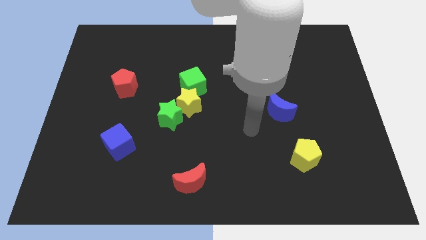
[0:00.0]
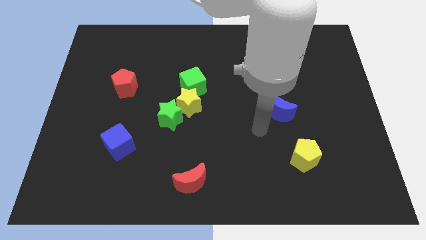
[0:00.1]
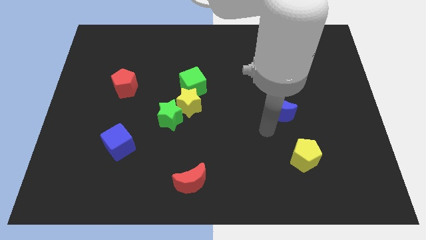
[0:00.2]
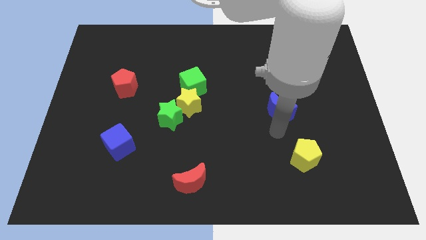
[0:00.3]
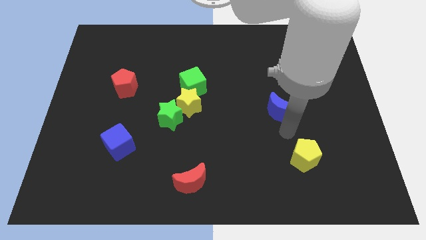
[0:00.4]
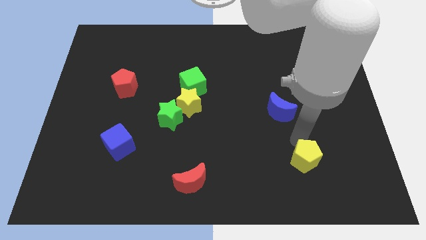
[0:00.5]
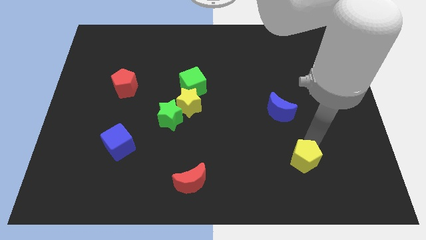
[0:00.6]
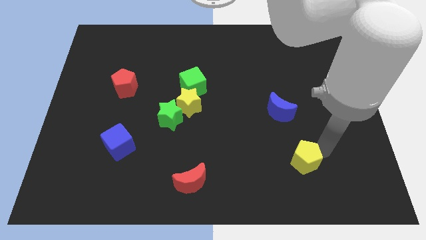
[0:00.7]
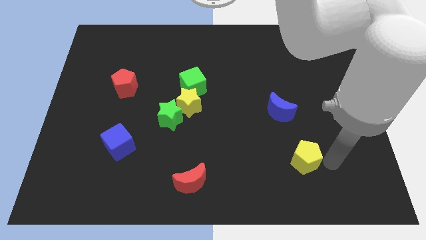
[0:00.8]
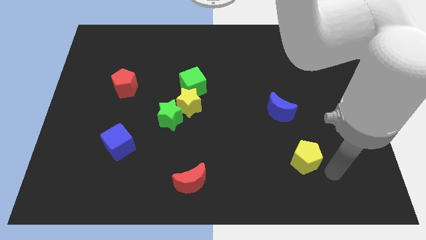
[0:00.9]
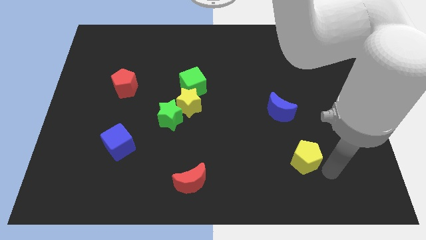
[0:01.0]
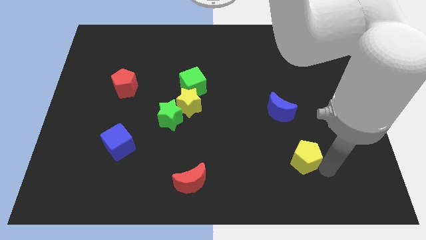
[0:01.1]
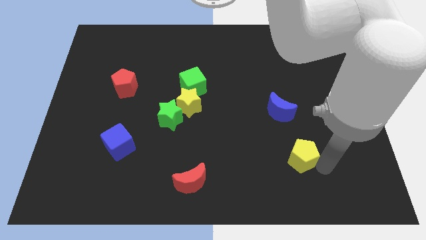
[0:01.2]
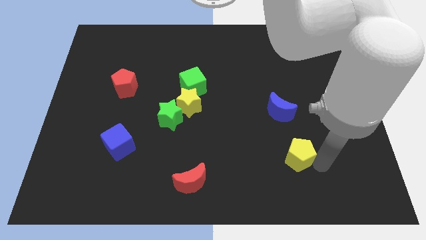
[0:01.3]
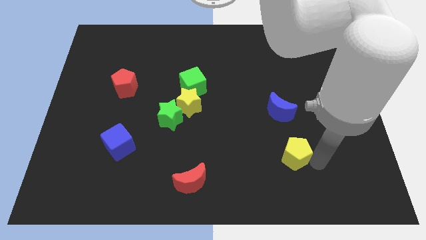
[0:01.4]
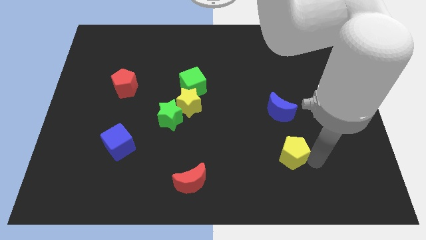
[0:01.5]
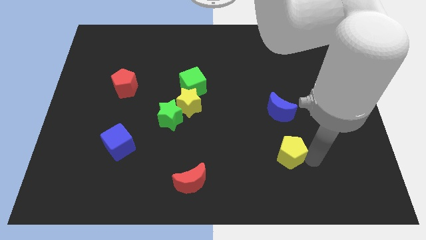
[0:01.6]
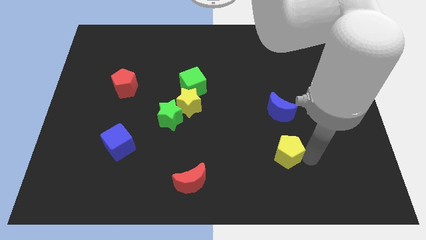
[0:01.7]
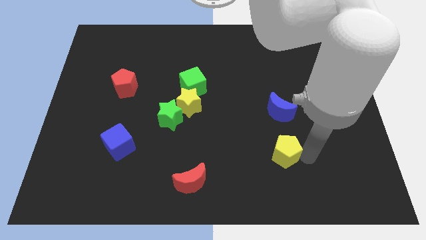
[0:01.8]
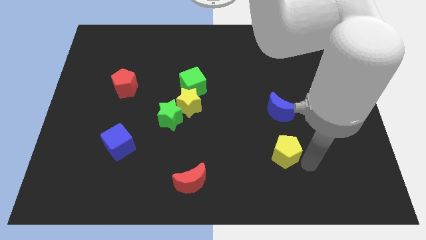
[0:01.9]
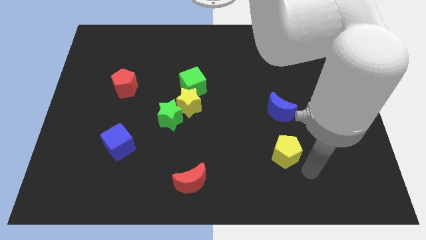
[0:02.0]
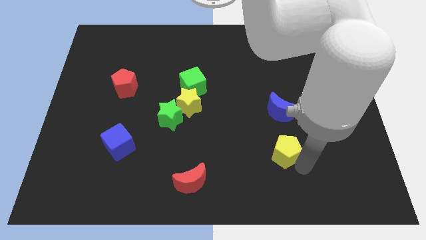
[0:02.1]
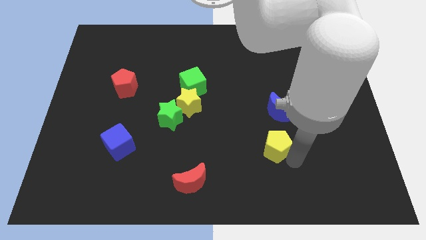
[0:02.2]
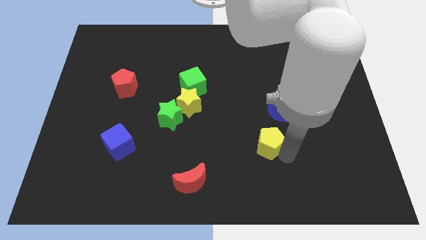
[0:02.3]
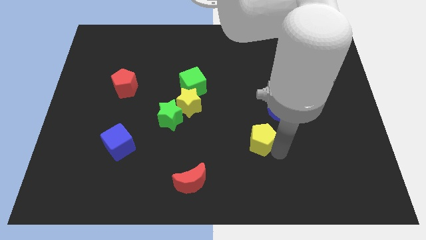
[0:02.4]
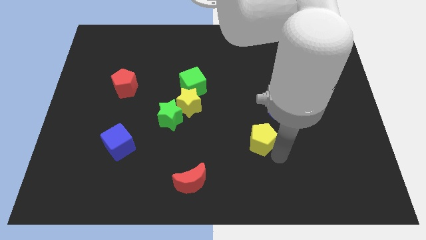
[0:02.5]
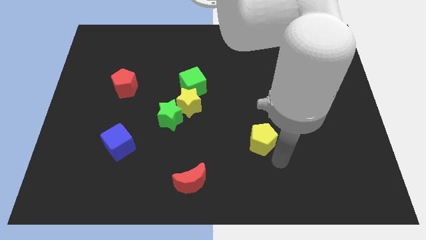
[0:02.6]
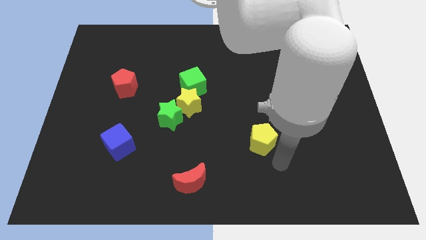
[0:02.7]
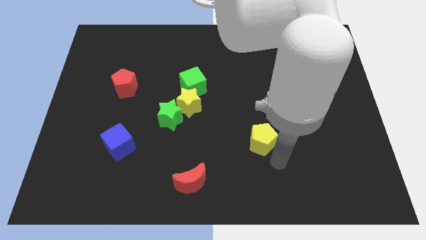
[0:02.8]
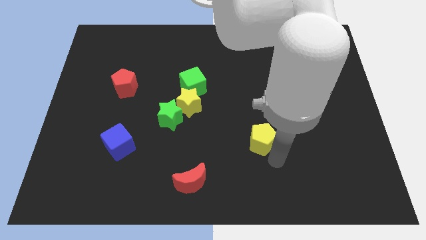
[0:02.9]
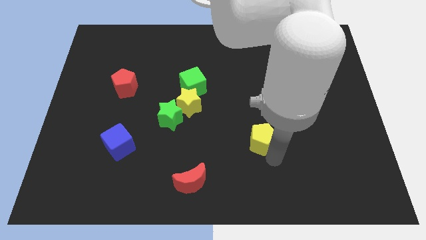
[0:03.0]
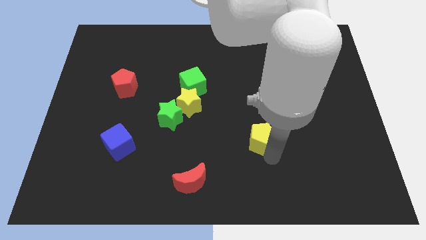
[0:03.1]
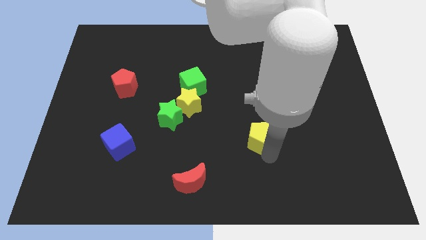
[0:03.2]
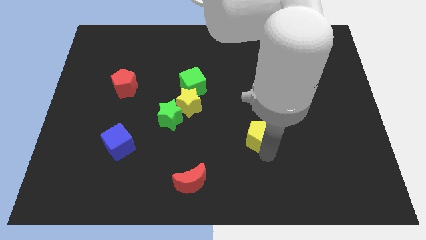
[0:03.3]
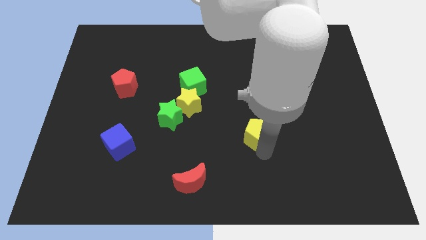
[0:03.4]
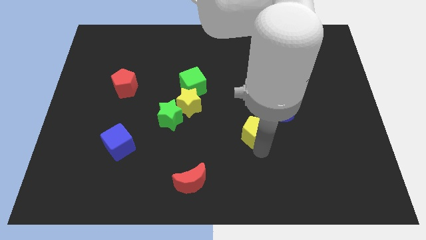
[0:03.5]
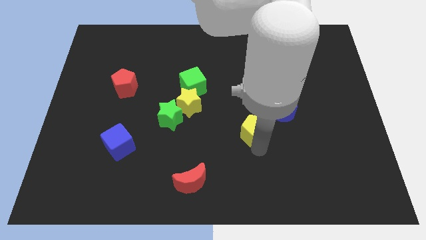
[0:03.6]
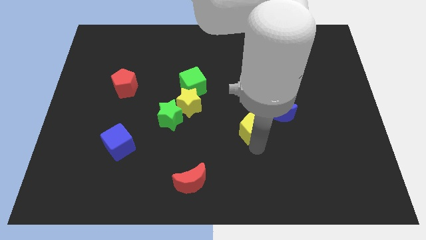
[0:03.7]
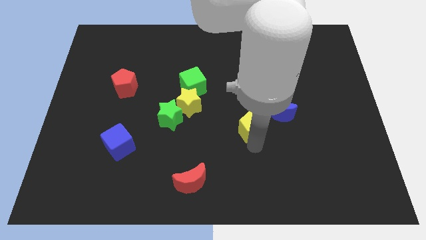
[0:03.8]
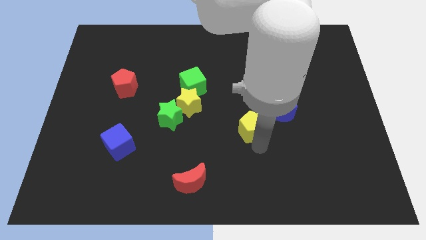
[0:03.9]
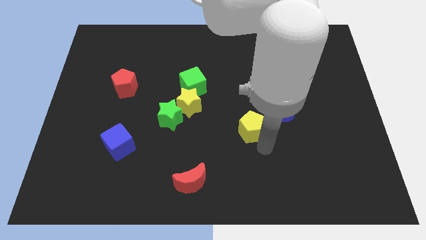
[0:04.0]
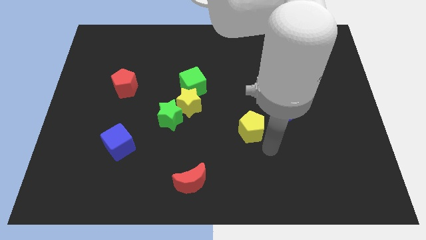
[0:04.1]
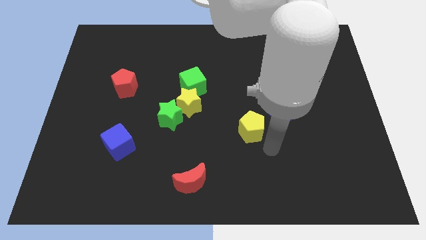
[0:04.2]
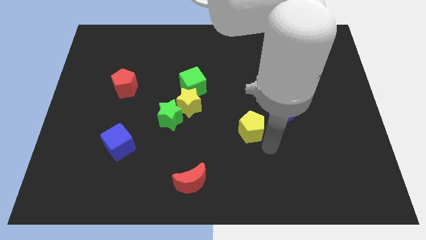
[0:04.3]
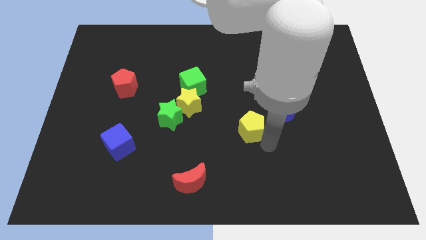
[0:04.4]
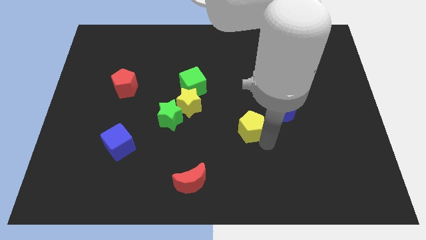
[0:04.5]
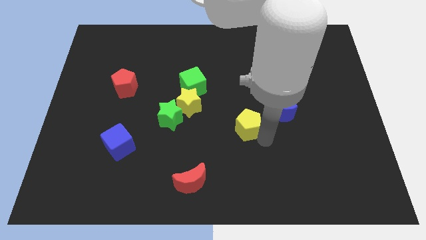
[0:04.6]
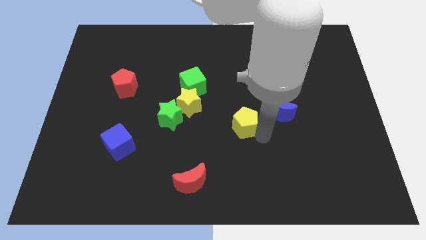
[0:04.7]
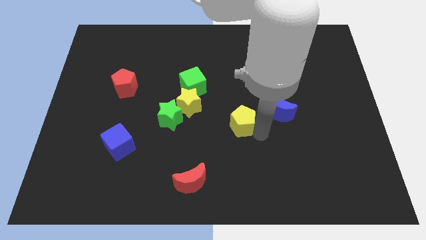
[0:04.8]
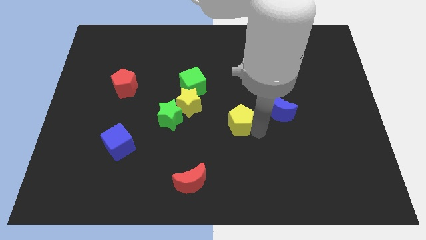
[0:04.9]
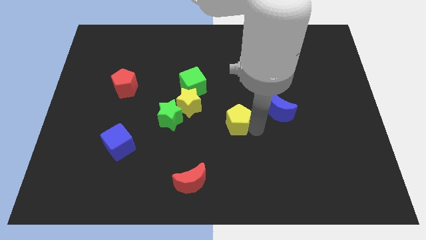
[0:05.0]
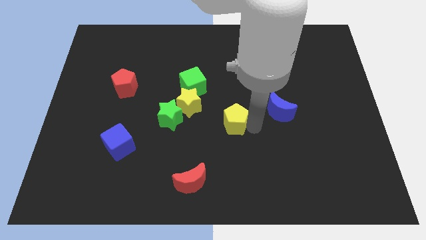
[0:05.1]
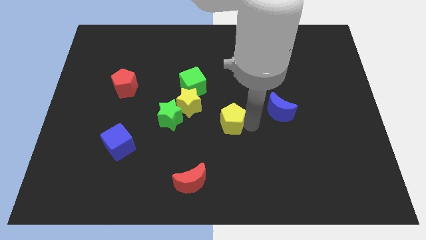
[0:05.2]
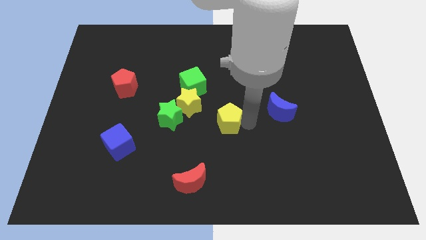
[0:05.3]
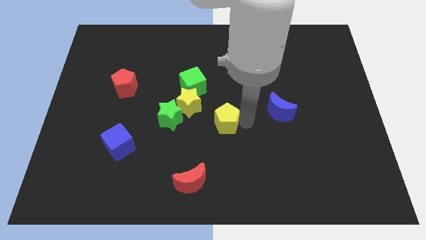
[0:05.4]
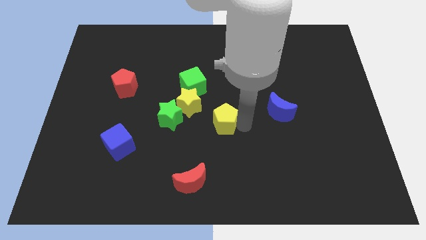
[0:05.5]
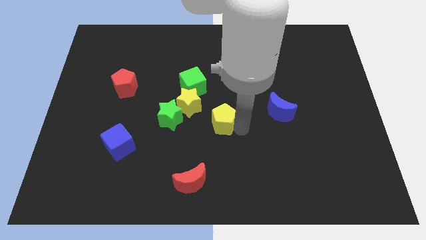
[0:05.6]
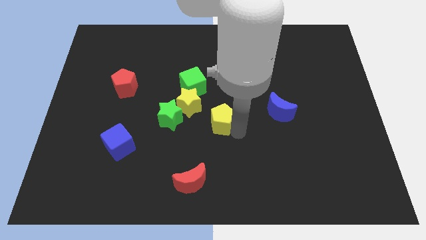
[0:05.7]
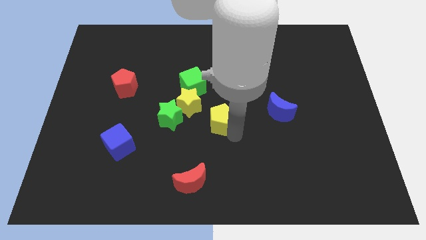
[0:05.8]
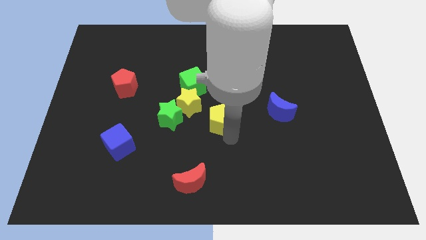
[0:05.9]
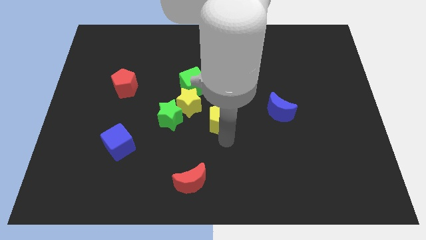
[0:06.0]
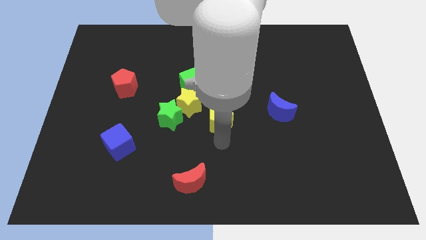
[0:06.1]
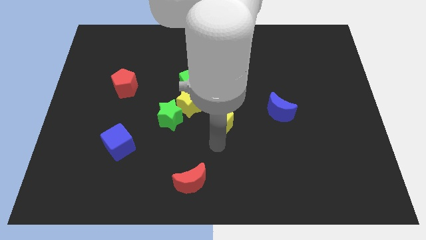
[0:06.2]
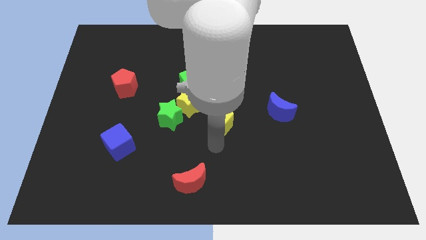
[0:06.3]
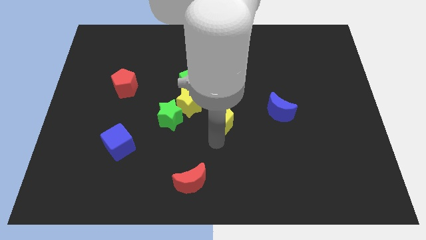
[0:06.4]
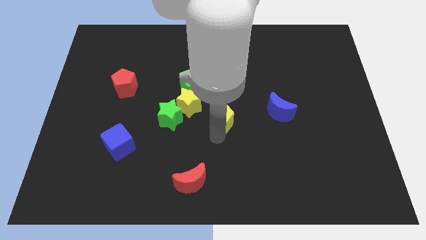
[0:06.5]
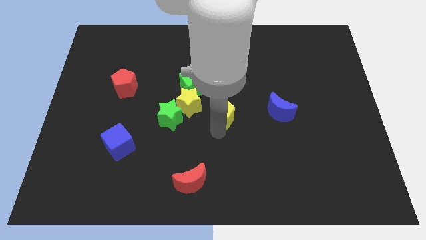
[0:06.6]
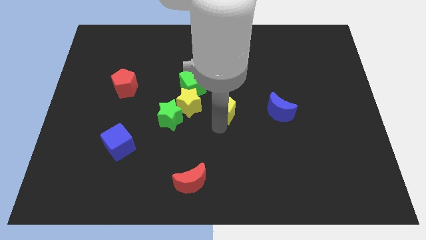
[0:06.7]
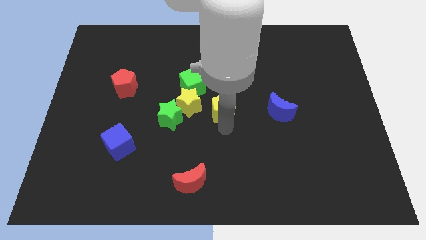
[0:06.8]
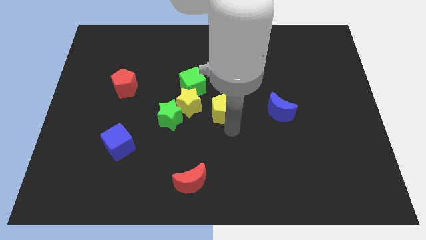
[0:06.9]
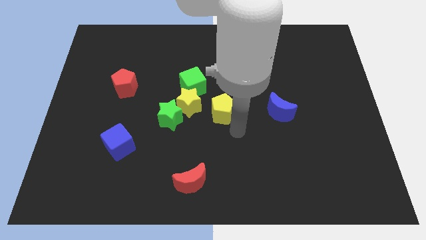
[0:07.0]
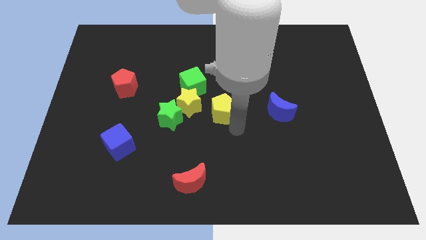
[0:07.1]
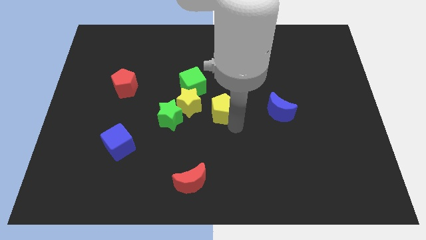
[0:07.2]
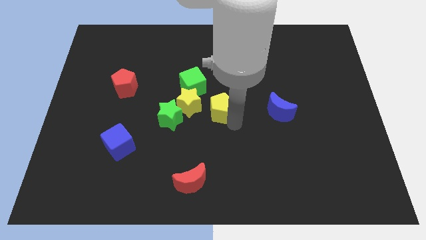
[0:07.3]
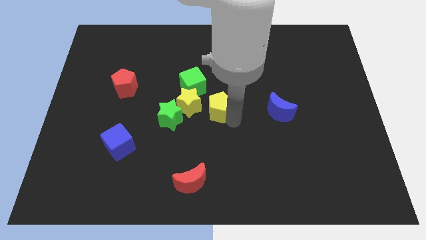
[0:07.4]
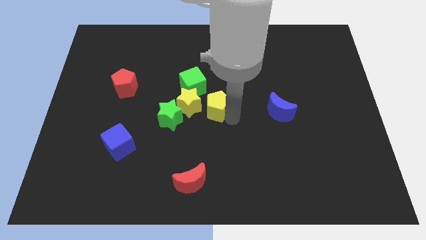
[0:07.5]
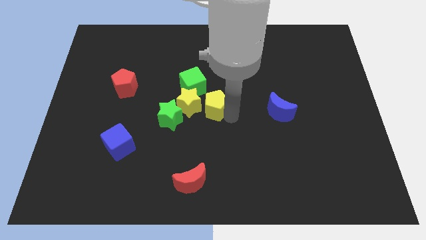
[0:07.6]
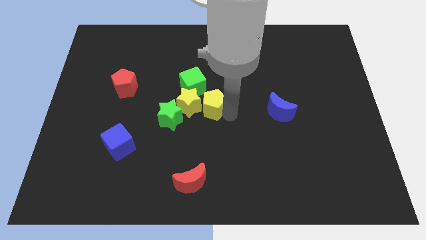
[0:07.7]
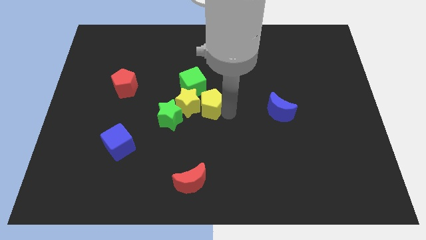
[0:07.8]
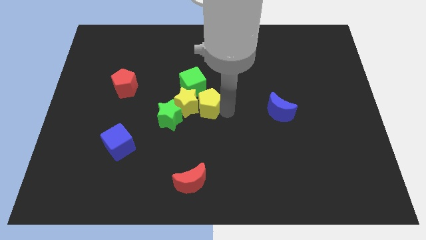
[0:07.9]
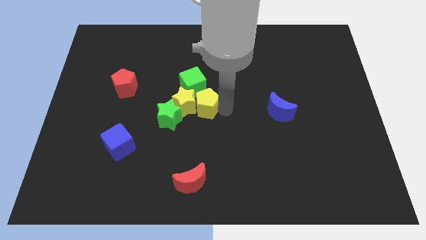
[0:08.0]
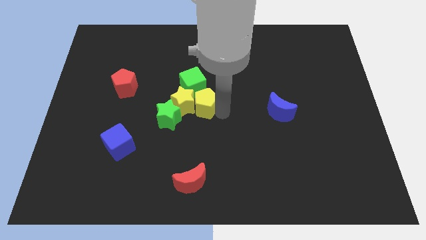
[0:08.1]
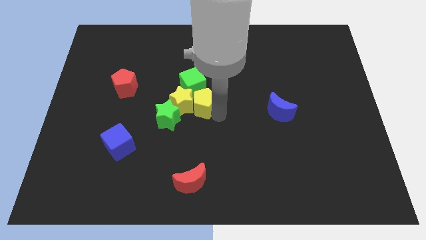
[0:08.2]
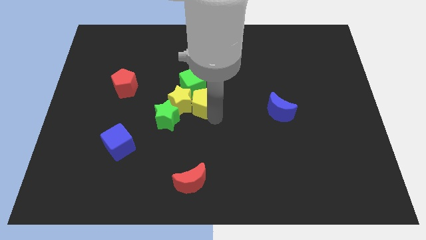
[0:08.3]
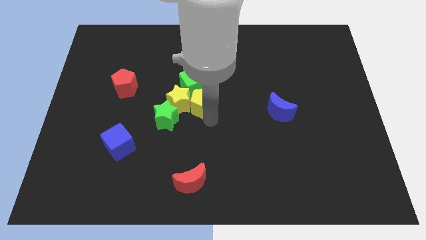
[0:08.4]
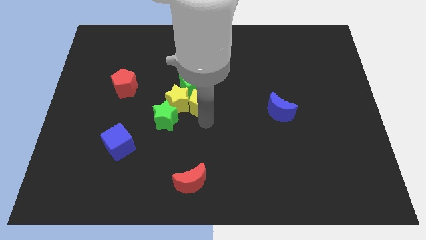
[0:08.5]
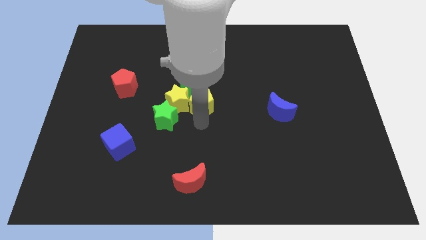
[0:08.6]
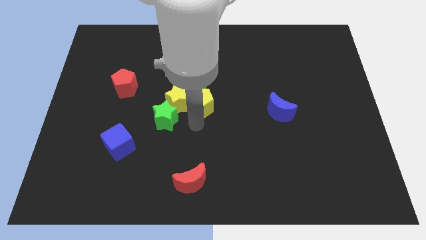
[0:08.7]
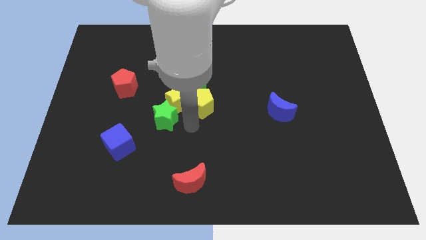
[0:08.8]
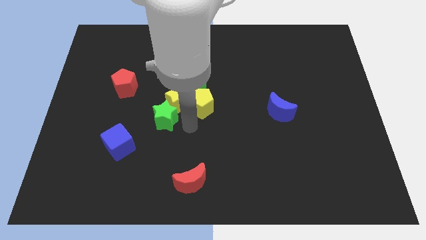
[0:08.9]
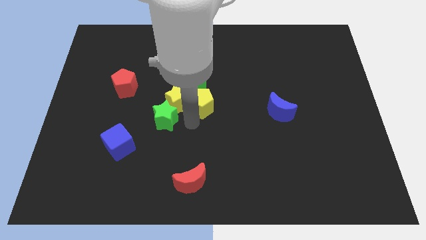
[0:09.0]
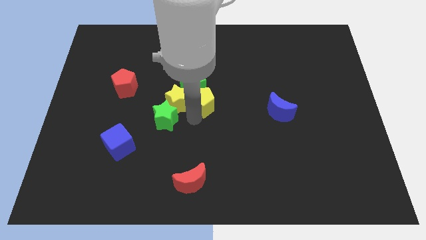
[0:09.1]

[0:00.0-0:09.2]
move the yellow pentagon close to the green cube
